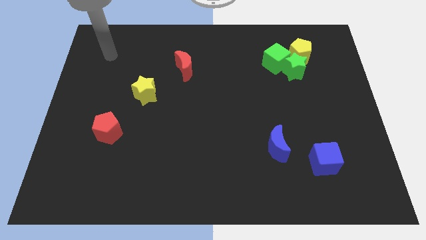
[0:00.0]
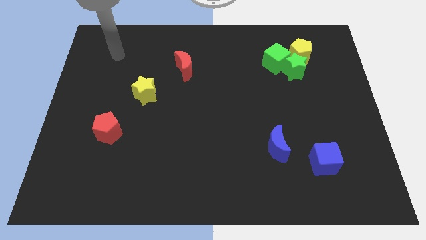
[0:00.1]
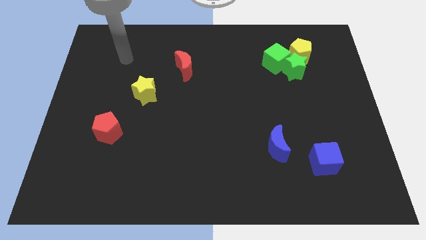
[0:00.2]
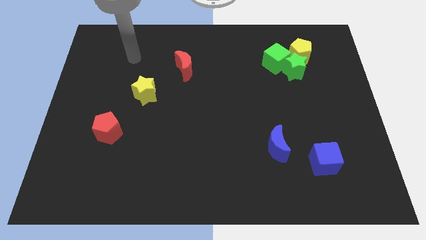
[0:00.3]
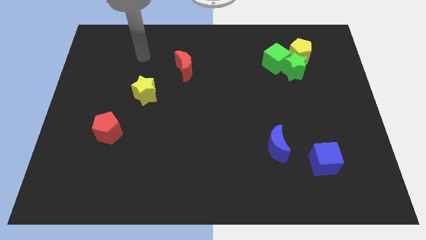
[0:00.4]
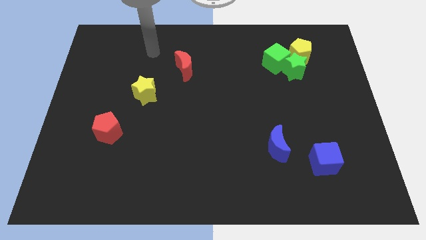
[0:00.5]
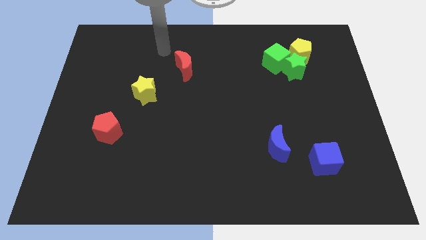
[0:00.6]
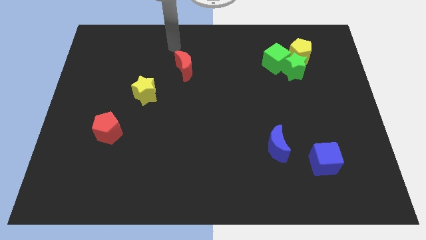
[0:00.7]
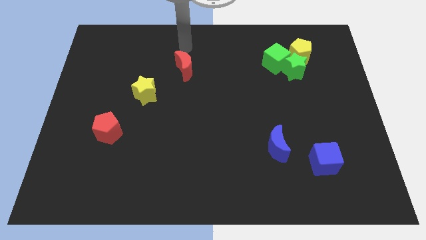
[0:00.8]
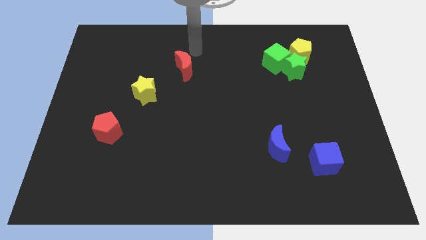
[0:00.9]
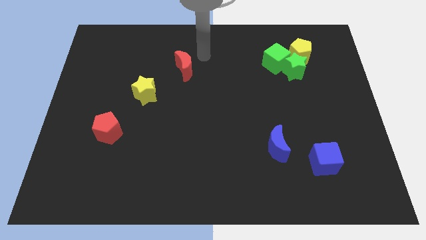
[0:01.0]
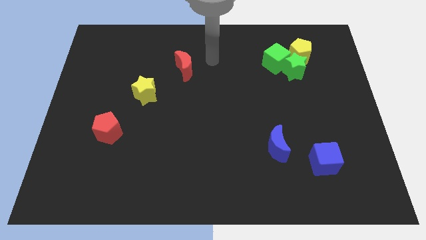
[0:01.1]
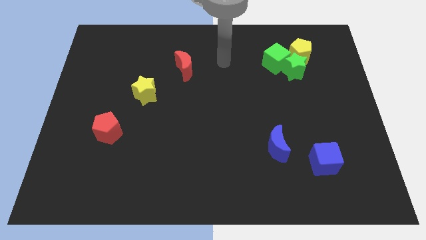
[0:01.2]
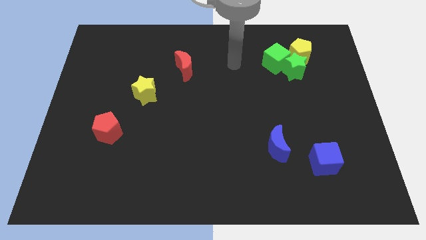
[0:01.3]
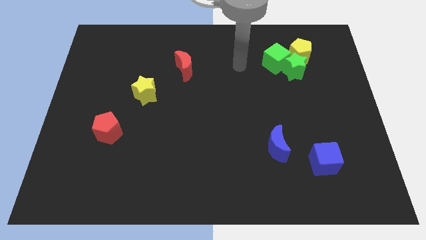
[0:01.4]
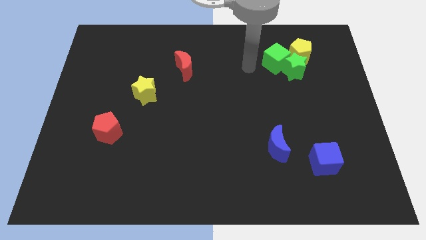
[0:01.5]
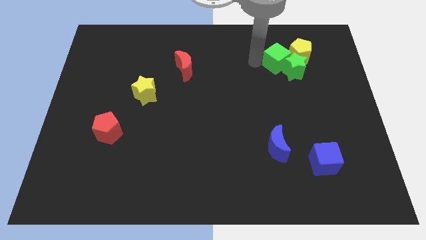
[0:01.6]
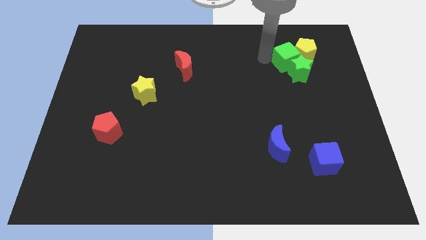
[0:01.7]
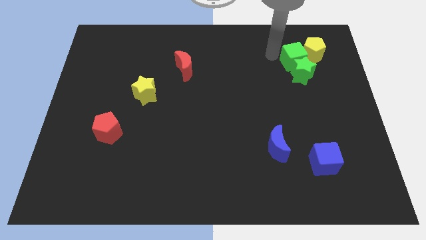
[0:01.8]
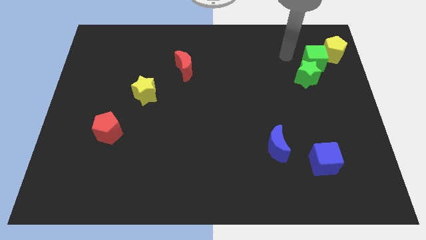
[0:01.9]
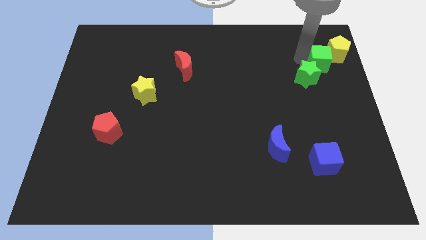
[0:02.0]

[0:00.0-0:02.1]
separate the green star from the green cube and yellow pentagon

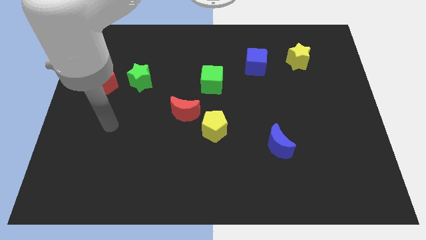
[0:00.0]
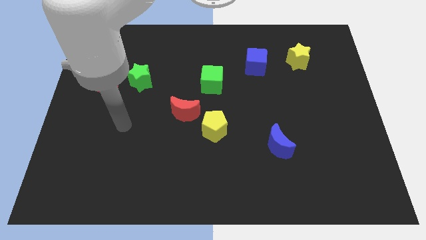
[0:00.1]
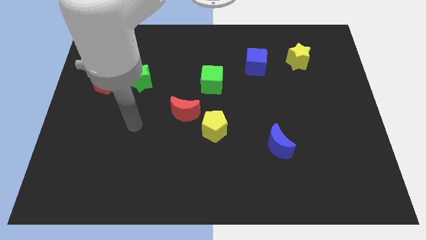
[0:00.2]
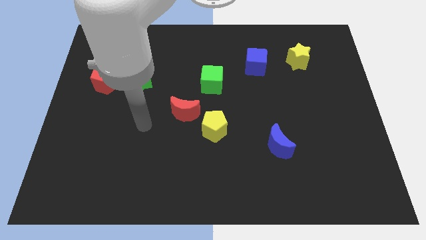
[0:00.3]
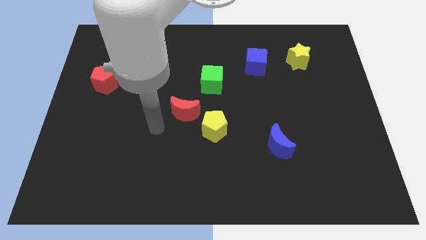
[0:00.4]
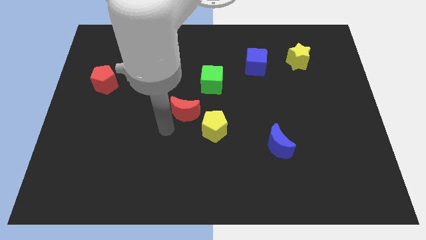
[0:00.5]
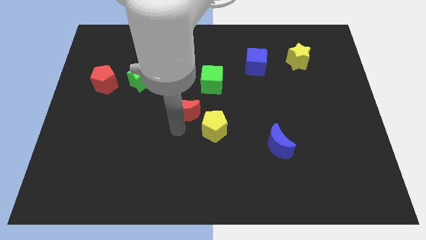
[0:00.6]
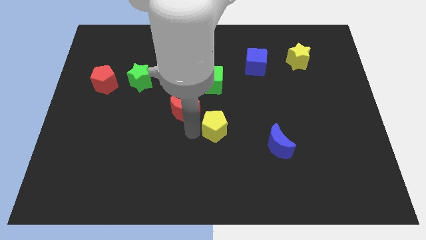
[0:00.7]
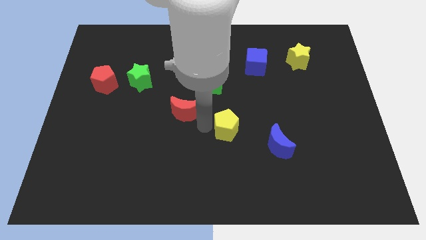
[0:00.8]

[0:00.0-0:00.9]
separate the red moon from the yellow pentagon

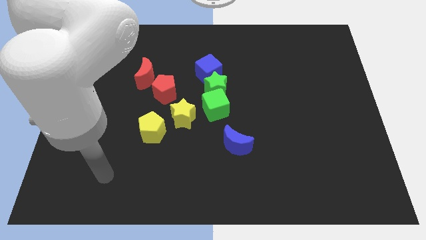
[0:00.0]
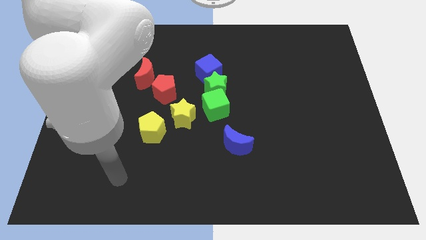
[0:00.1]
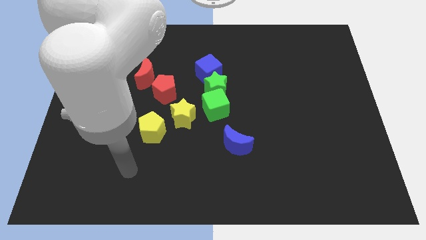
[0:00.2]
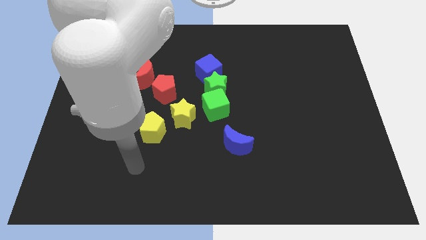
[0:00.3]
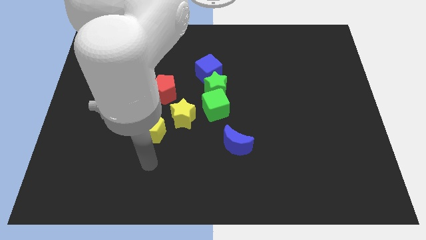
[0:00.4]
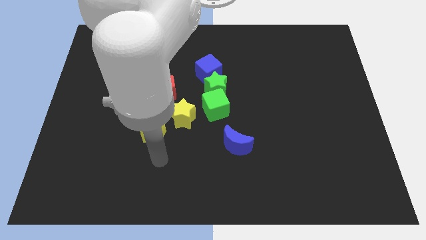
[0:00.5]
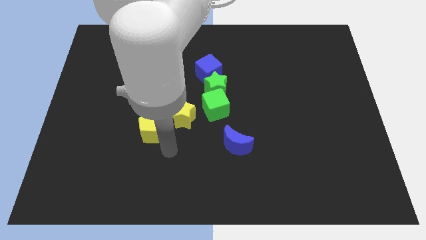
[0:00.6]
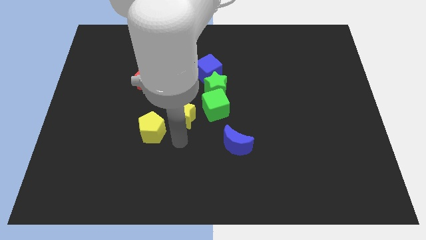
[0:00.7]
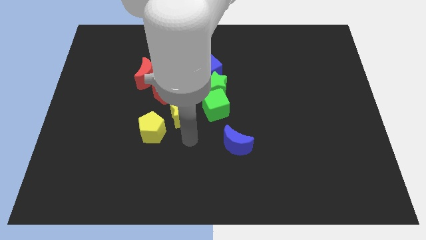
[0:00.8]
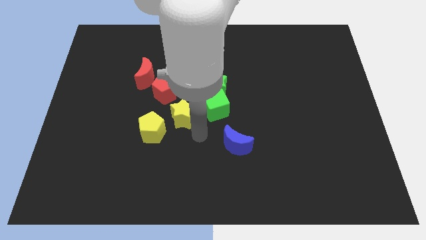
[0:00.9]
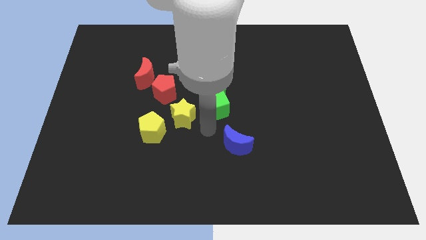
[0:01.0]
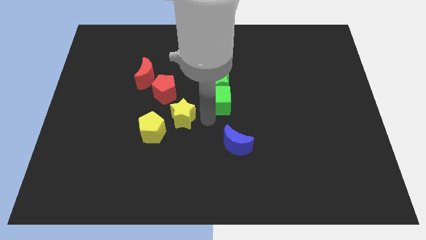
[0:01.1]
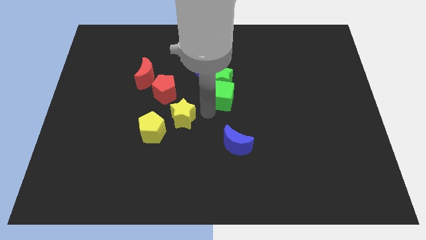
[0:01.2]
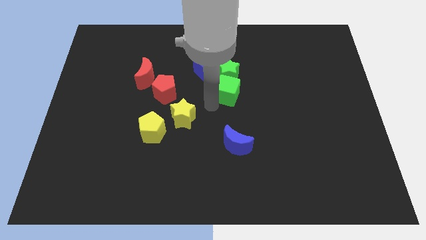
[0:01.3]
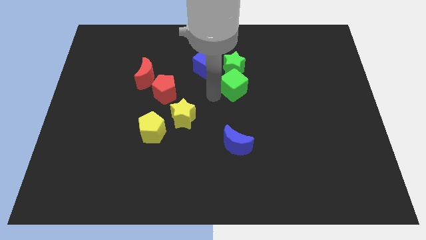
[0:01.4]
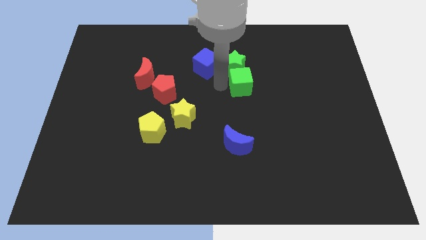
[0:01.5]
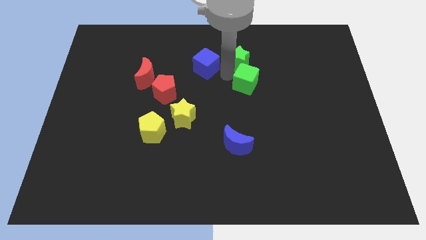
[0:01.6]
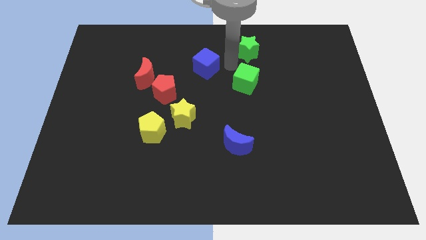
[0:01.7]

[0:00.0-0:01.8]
pull the blue cube apart from the green star

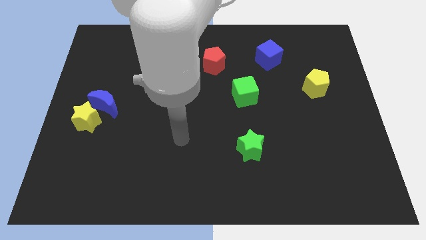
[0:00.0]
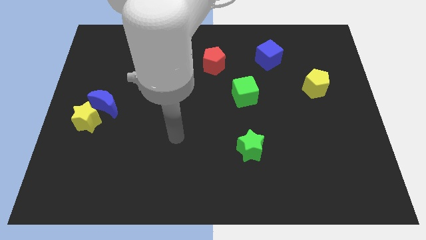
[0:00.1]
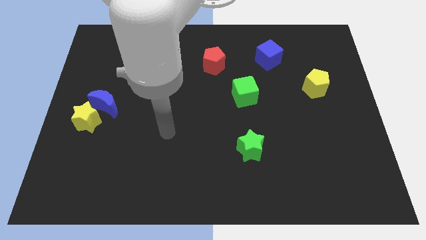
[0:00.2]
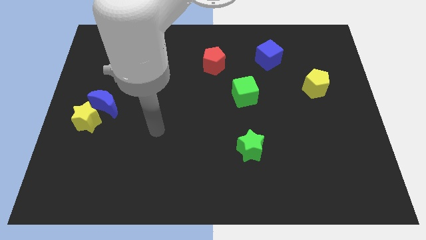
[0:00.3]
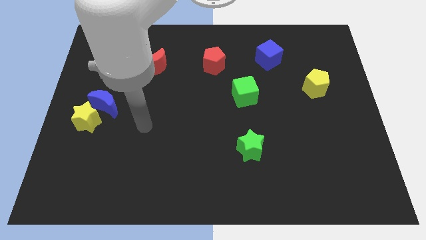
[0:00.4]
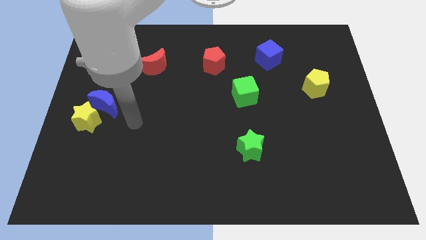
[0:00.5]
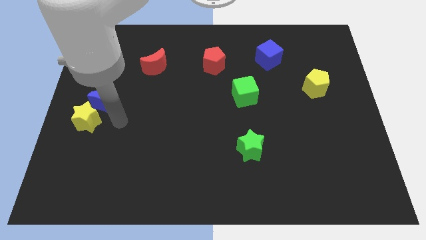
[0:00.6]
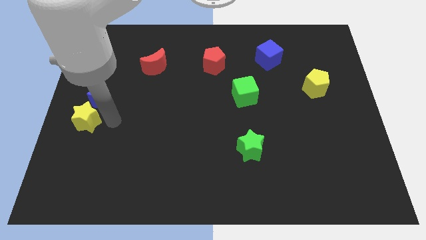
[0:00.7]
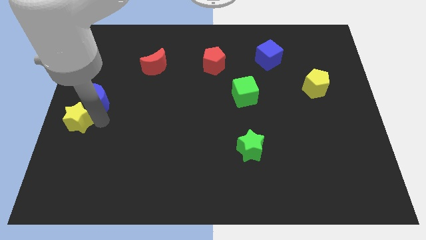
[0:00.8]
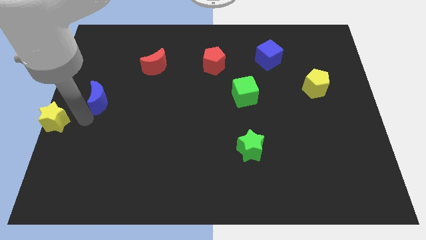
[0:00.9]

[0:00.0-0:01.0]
separate the blue moon from the yellow star

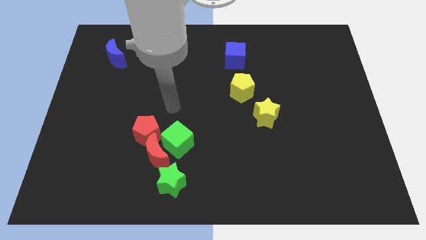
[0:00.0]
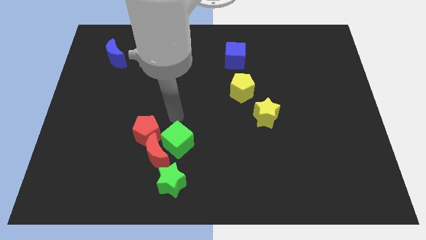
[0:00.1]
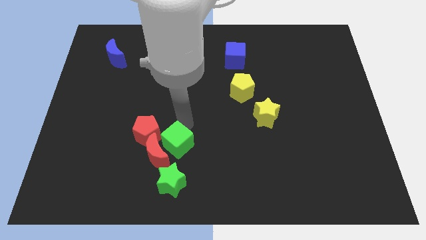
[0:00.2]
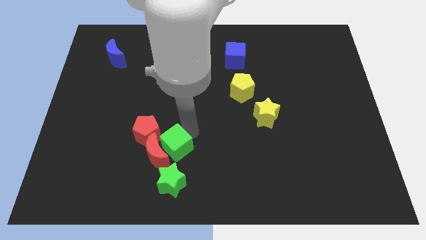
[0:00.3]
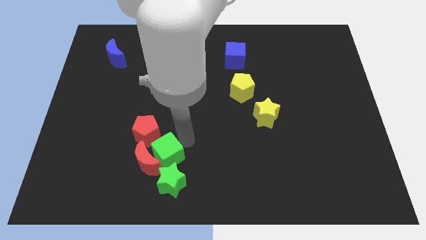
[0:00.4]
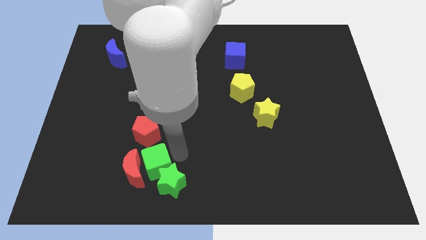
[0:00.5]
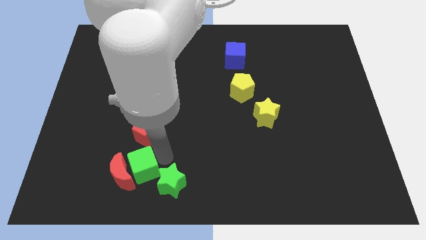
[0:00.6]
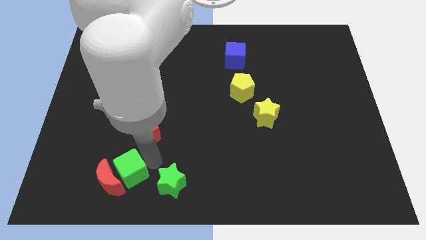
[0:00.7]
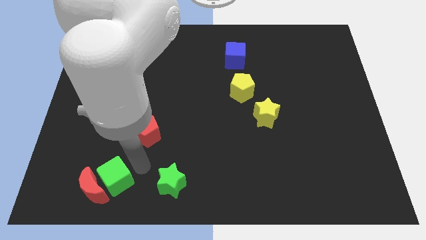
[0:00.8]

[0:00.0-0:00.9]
separate the red moon from the green cube, red pentagon, and green star

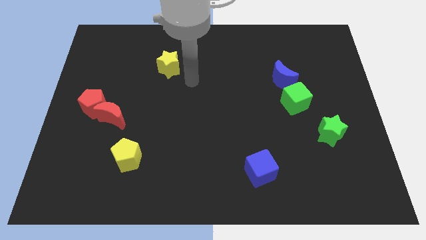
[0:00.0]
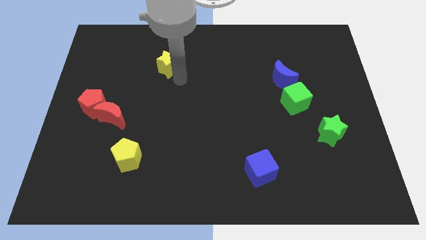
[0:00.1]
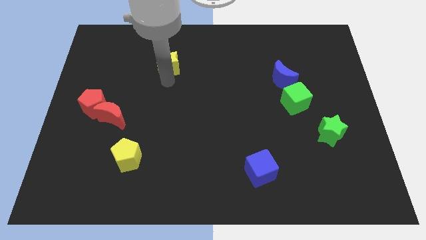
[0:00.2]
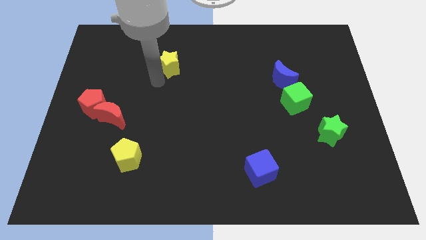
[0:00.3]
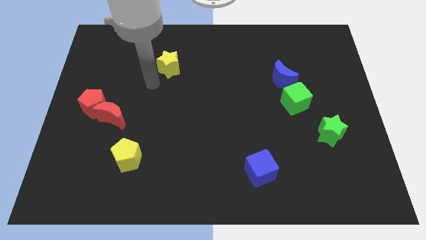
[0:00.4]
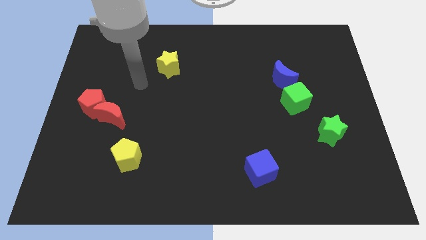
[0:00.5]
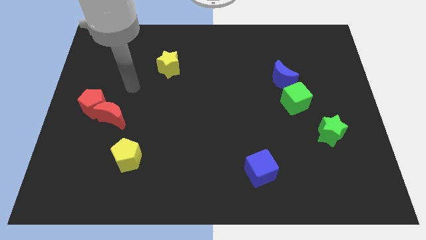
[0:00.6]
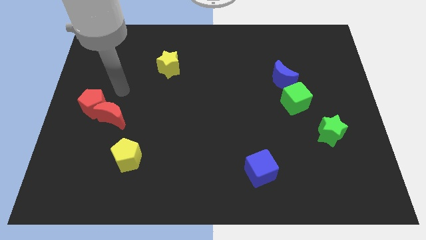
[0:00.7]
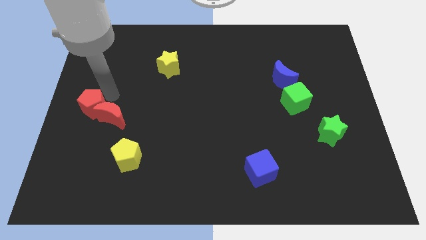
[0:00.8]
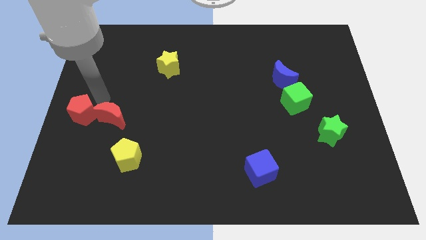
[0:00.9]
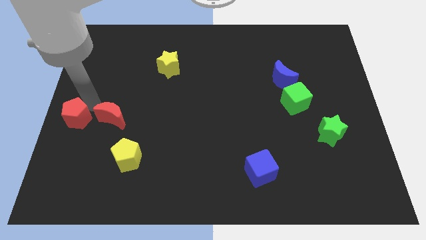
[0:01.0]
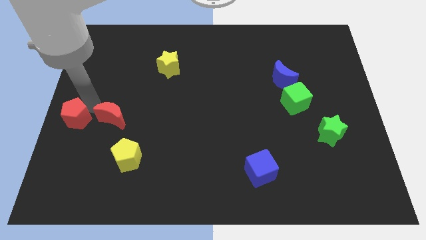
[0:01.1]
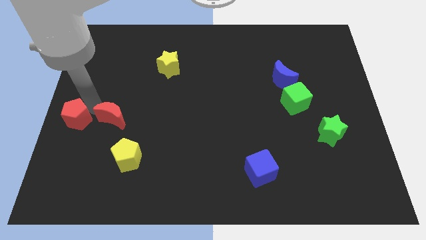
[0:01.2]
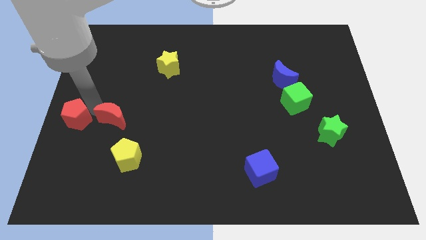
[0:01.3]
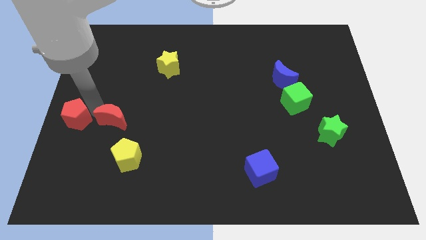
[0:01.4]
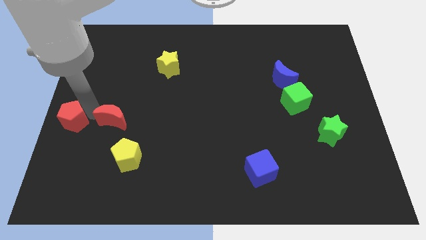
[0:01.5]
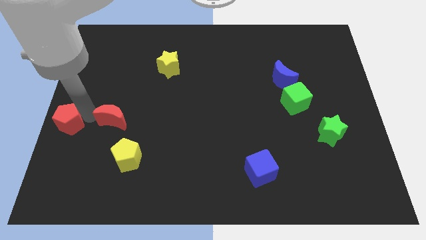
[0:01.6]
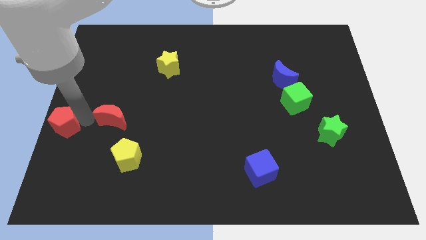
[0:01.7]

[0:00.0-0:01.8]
pull the red moon apart from the red pentagon

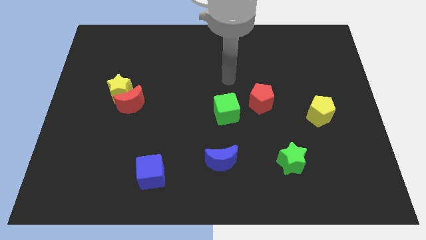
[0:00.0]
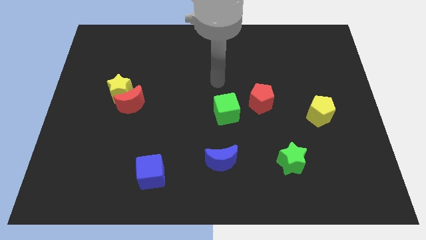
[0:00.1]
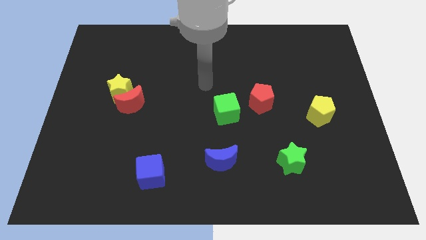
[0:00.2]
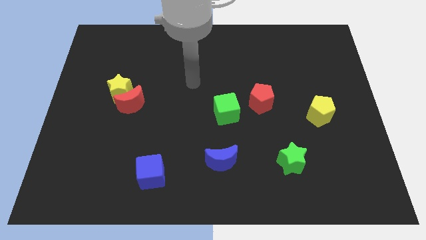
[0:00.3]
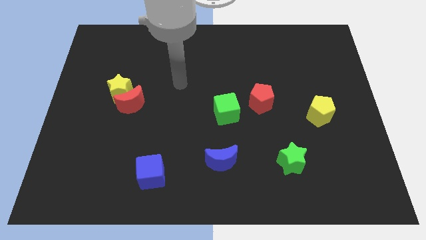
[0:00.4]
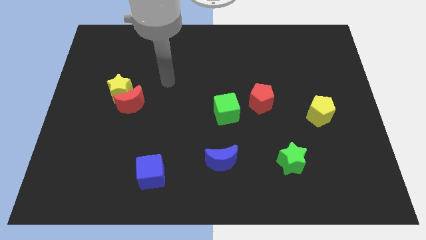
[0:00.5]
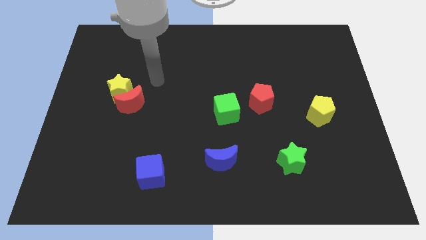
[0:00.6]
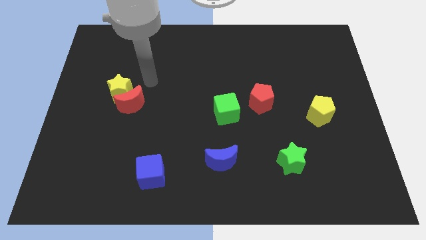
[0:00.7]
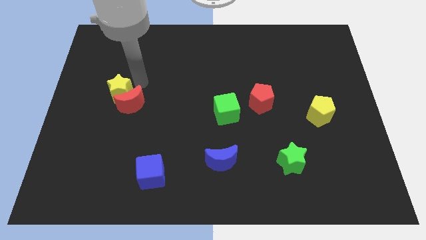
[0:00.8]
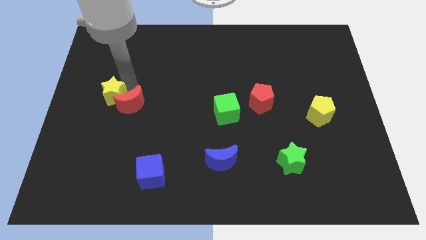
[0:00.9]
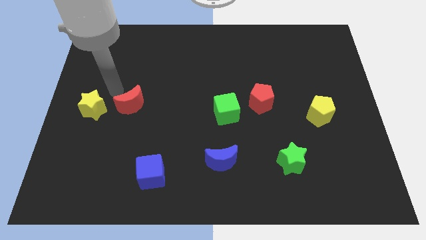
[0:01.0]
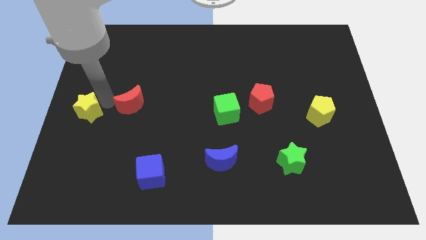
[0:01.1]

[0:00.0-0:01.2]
pull the red moon apart from the yellow star
